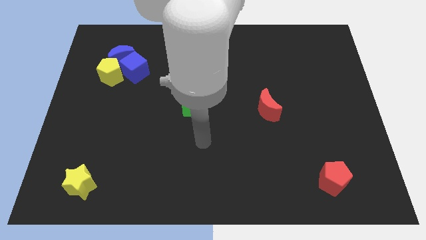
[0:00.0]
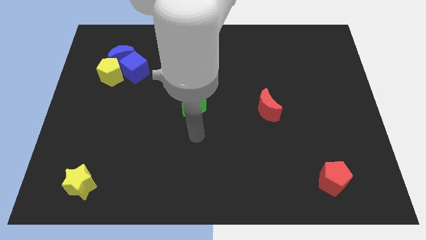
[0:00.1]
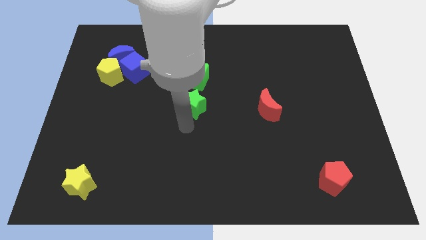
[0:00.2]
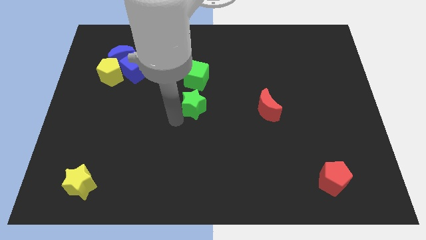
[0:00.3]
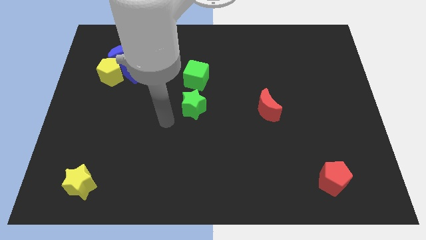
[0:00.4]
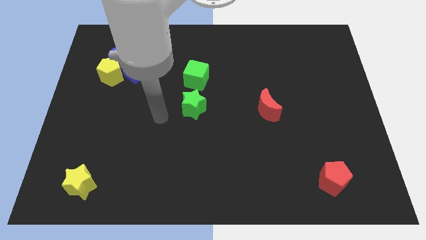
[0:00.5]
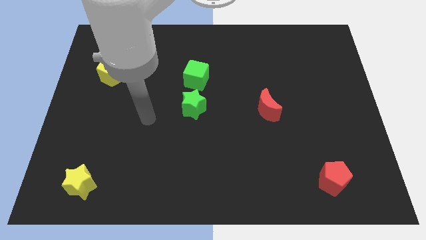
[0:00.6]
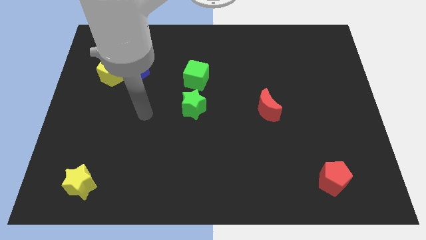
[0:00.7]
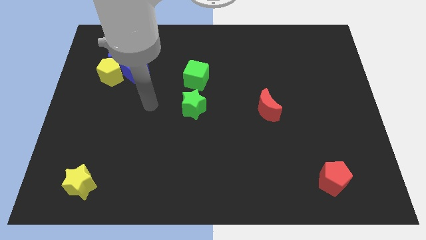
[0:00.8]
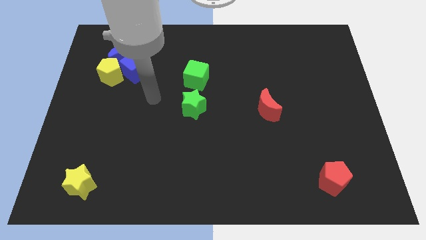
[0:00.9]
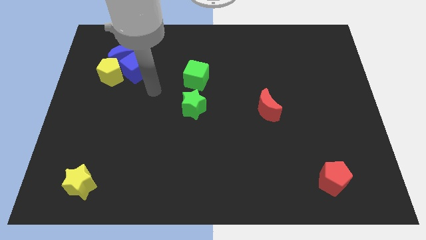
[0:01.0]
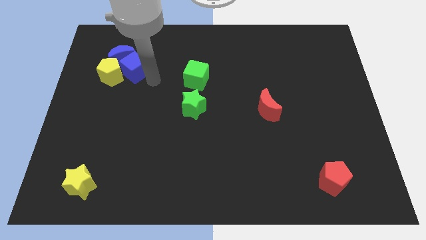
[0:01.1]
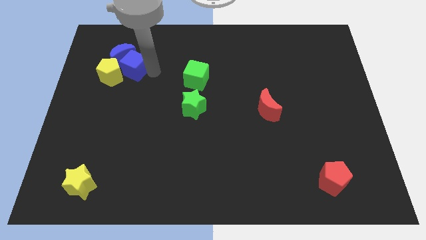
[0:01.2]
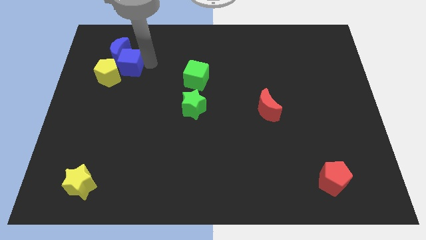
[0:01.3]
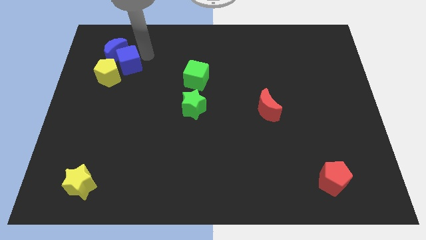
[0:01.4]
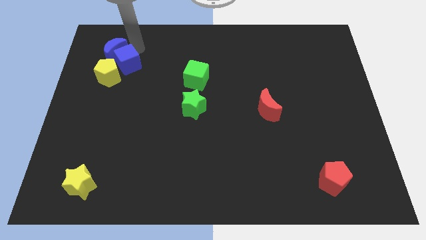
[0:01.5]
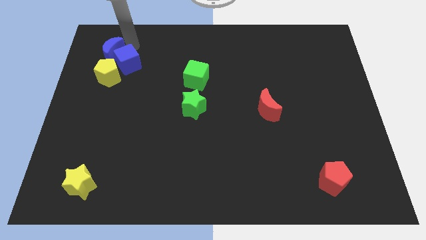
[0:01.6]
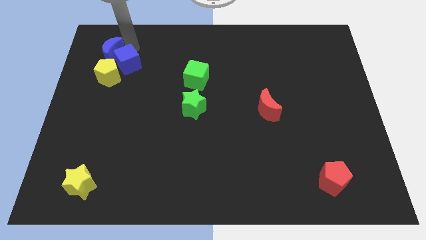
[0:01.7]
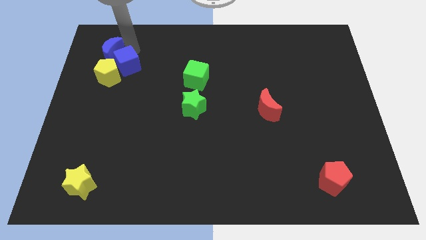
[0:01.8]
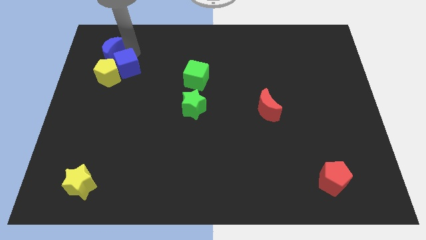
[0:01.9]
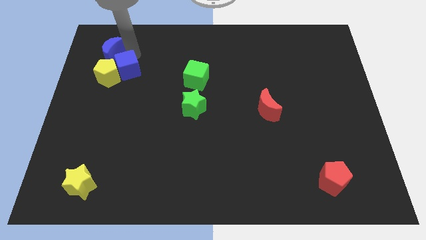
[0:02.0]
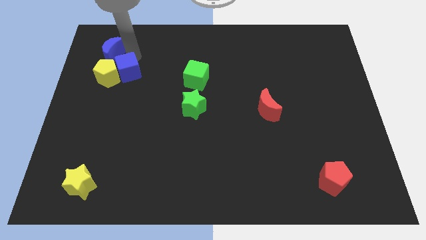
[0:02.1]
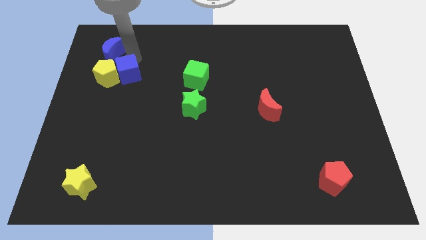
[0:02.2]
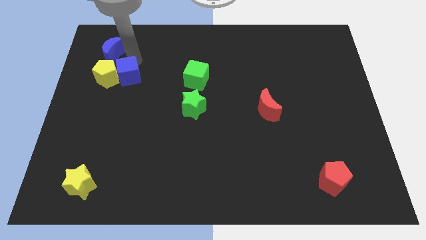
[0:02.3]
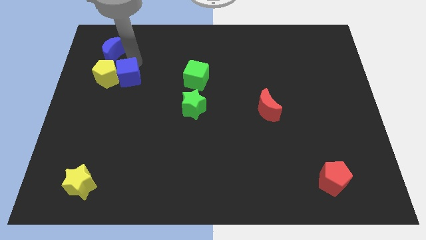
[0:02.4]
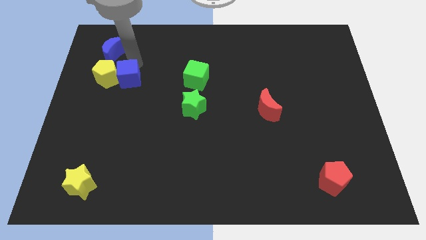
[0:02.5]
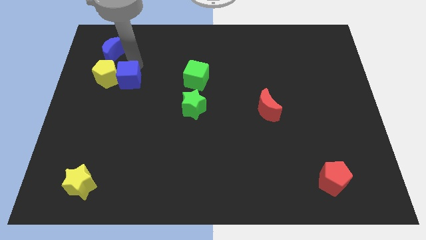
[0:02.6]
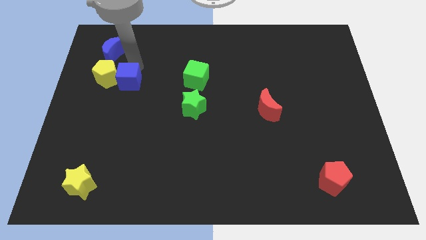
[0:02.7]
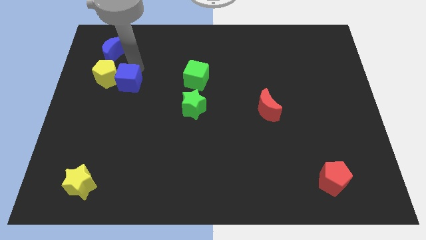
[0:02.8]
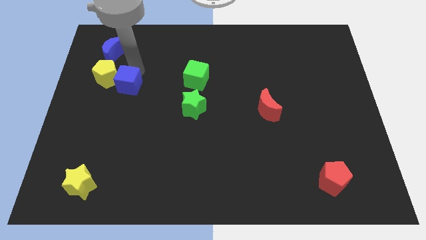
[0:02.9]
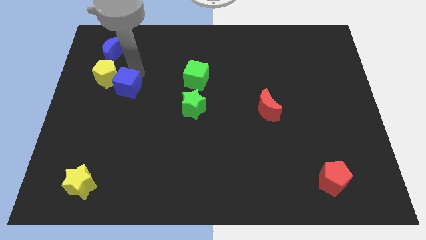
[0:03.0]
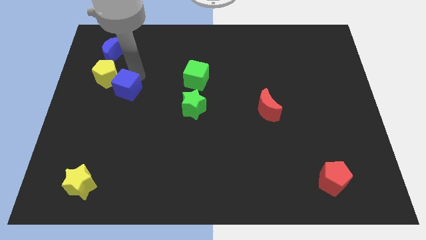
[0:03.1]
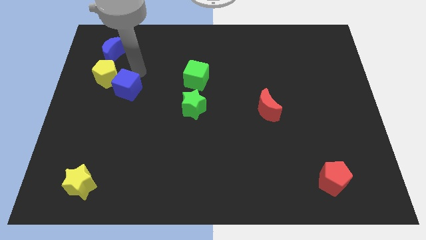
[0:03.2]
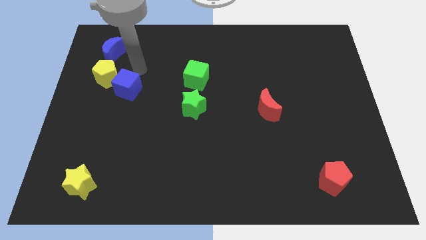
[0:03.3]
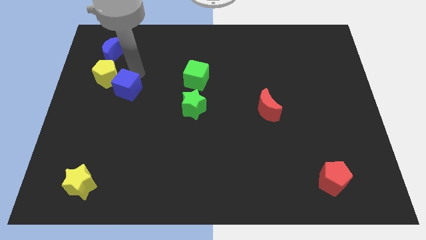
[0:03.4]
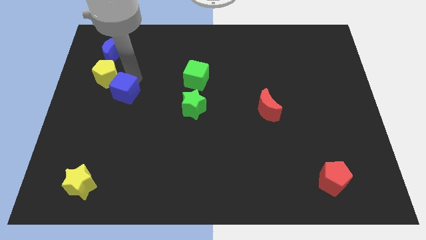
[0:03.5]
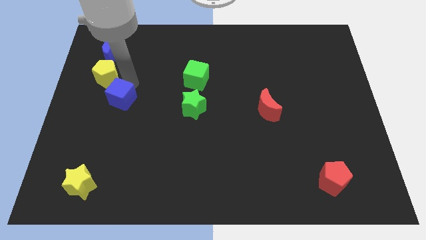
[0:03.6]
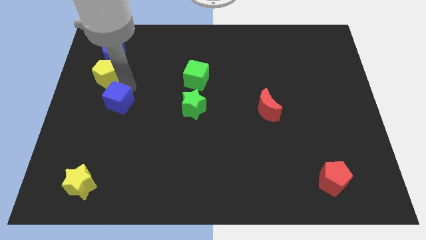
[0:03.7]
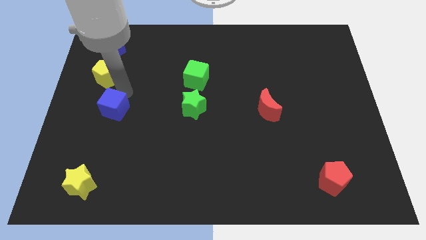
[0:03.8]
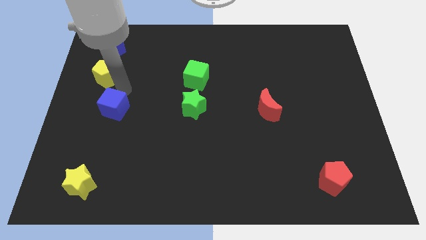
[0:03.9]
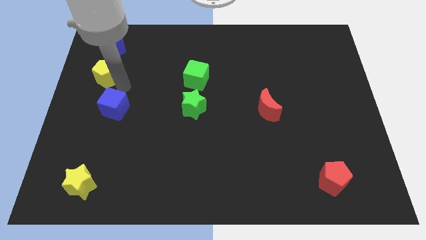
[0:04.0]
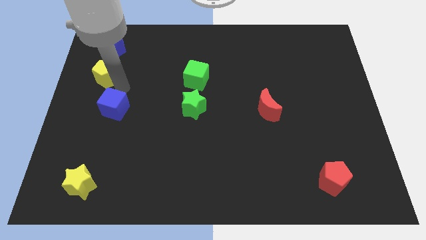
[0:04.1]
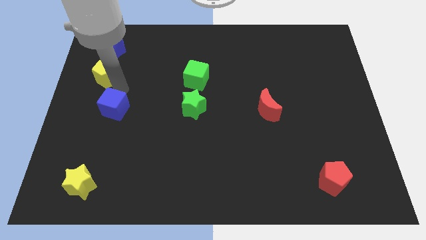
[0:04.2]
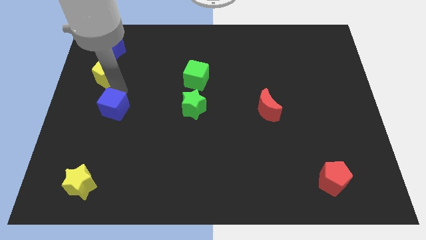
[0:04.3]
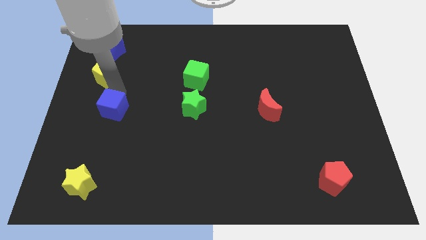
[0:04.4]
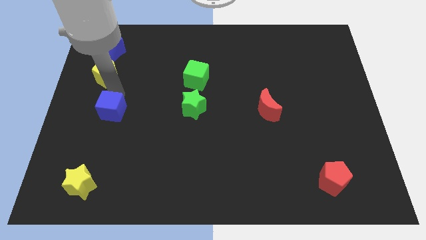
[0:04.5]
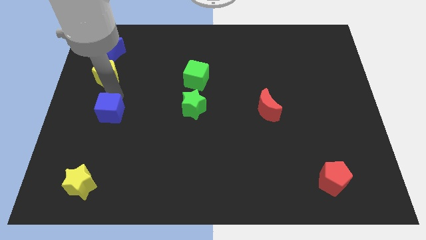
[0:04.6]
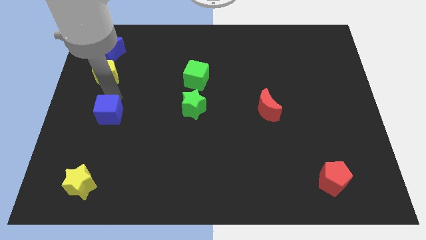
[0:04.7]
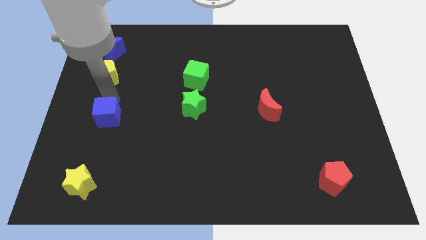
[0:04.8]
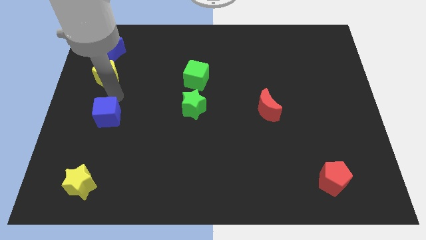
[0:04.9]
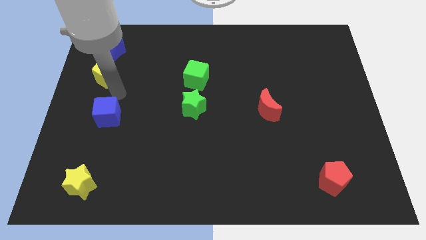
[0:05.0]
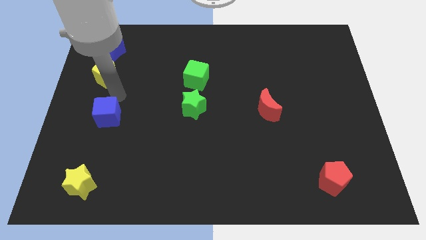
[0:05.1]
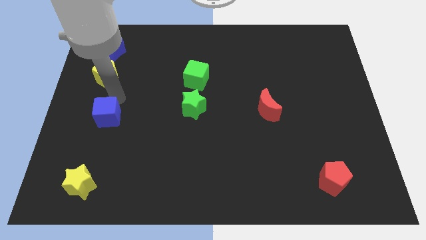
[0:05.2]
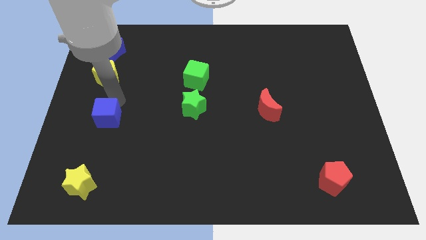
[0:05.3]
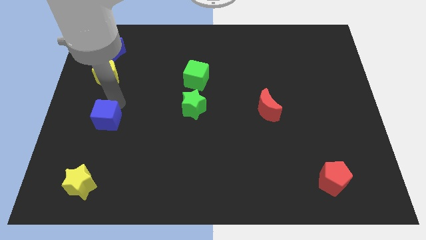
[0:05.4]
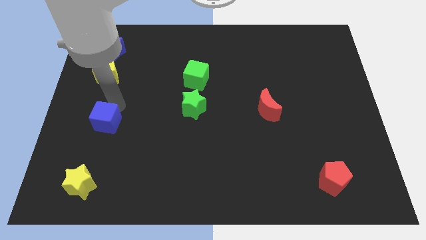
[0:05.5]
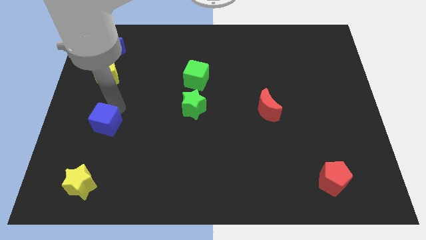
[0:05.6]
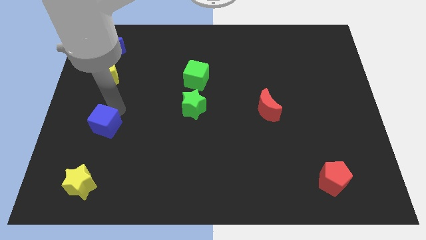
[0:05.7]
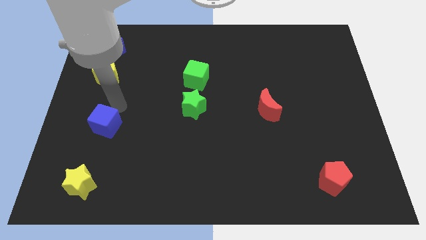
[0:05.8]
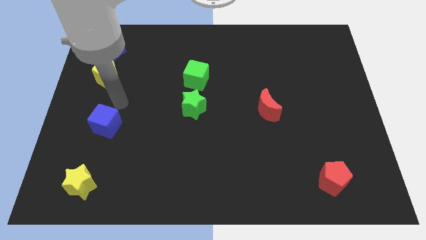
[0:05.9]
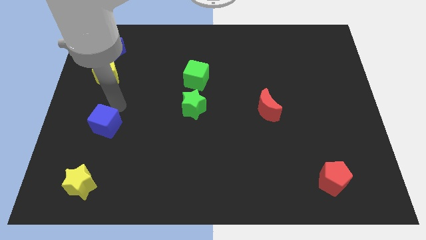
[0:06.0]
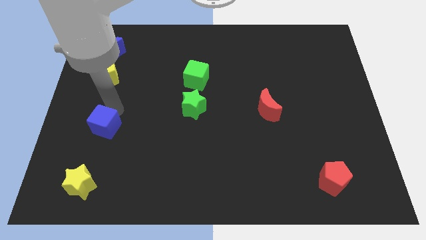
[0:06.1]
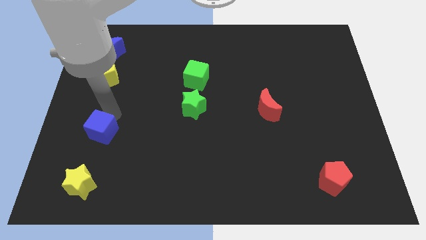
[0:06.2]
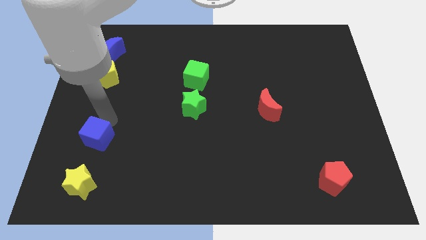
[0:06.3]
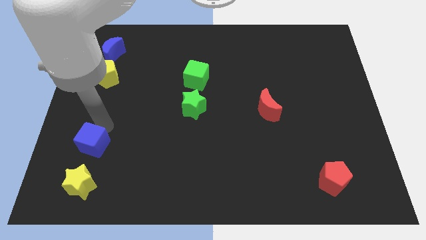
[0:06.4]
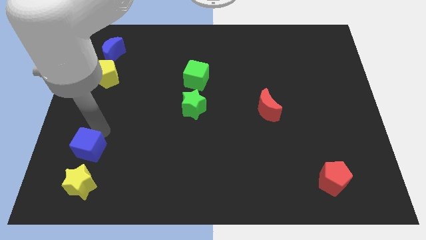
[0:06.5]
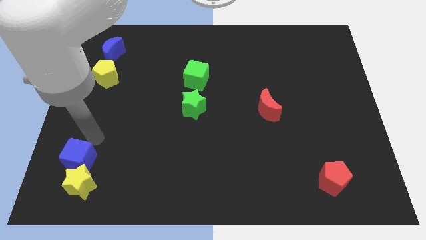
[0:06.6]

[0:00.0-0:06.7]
slide the blue cube next to the yellow star

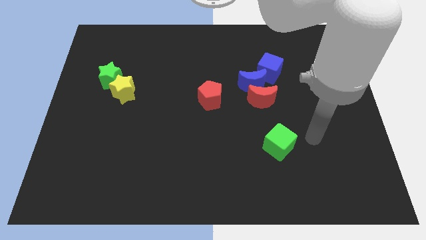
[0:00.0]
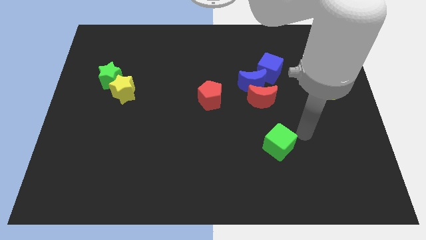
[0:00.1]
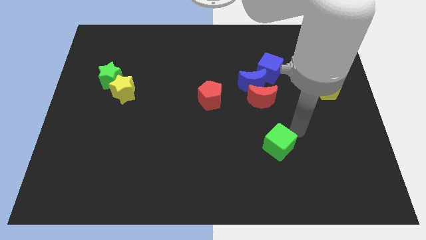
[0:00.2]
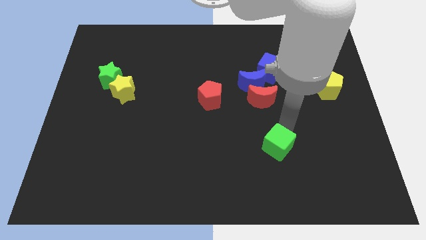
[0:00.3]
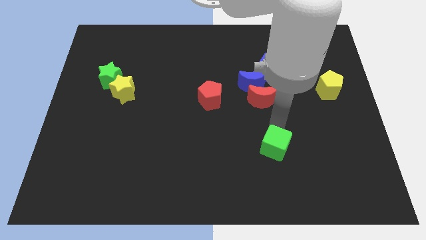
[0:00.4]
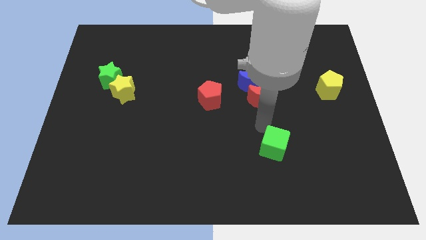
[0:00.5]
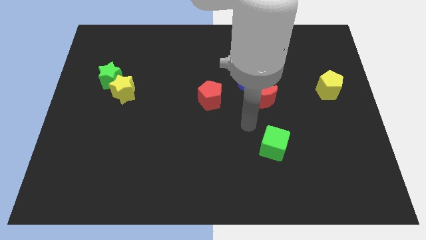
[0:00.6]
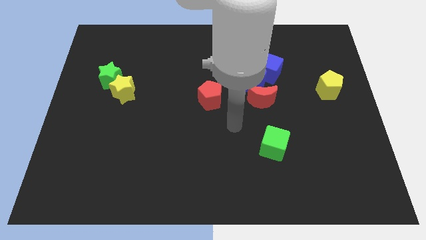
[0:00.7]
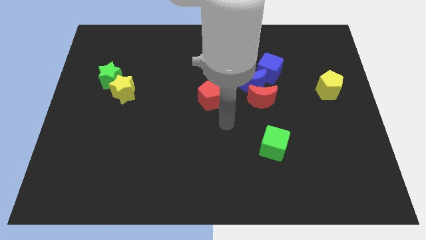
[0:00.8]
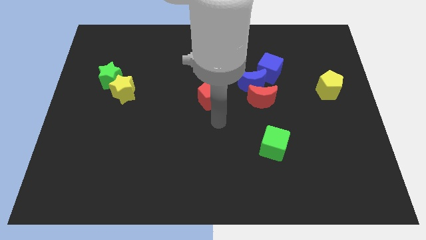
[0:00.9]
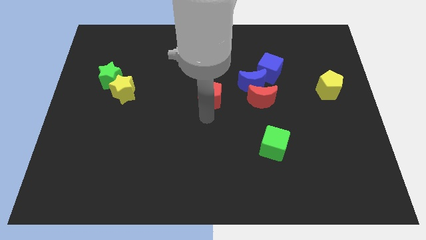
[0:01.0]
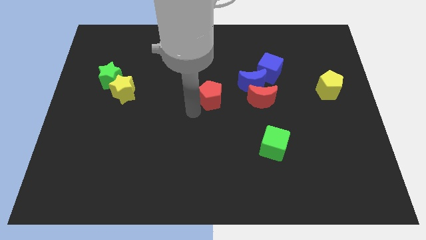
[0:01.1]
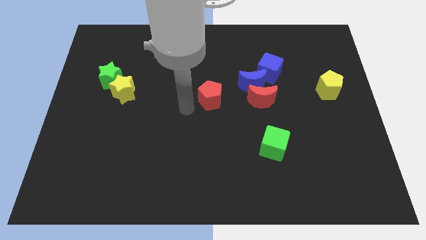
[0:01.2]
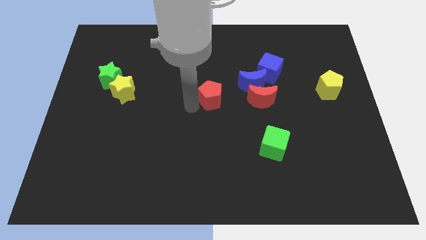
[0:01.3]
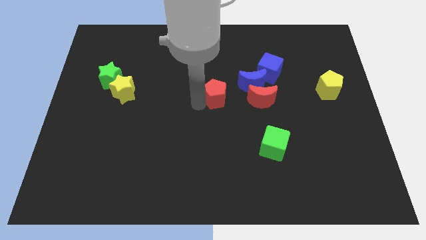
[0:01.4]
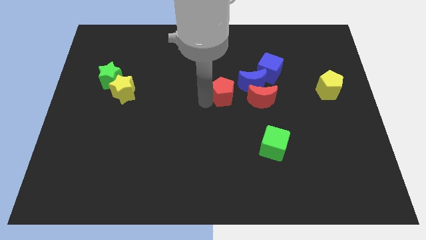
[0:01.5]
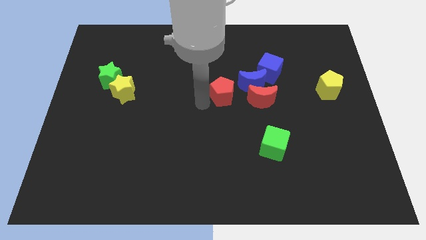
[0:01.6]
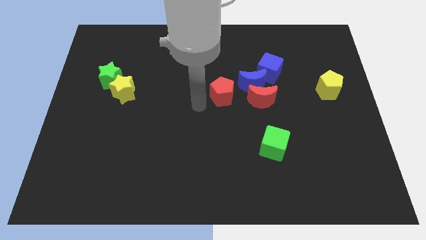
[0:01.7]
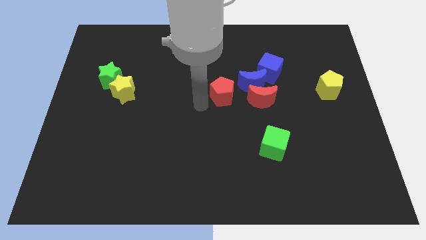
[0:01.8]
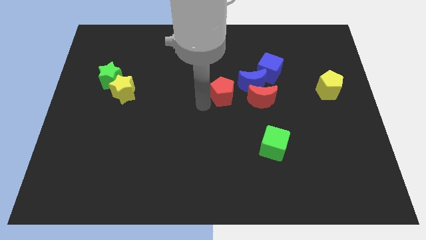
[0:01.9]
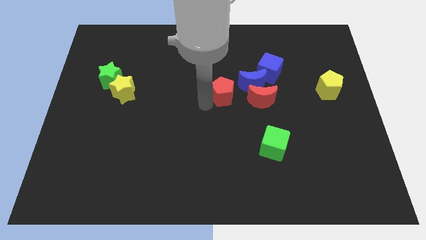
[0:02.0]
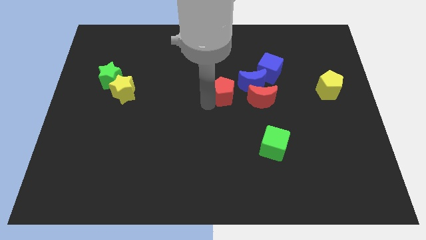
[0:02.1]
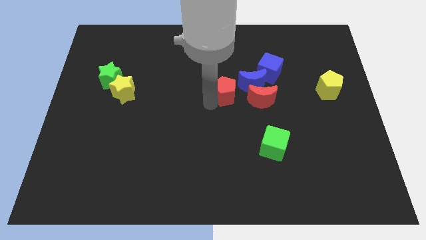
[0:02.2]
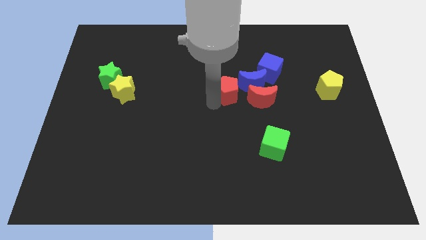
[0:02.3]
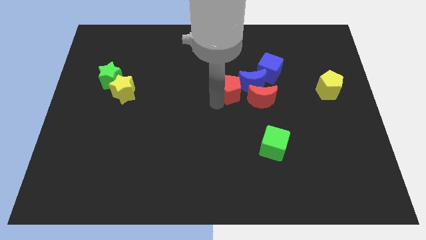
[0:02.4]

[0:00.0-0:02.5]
push the red pentagon next to the blue moon
